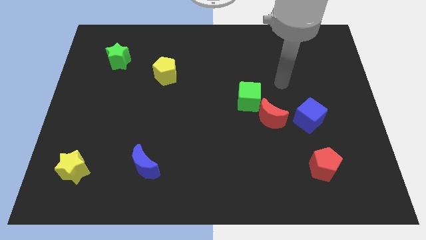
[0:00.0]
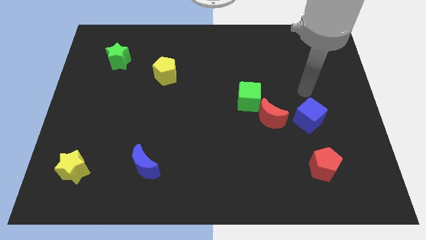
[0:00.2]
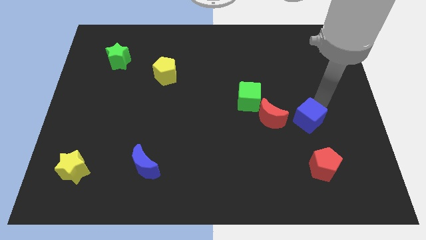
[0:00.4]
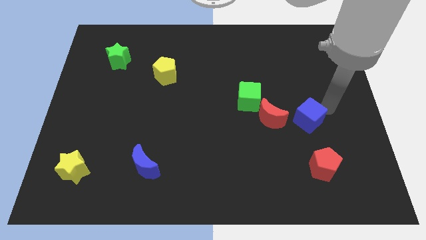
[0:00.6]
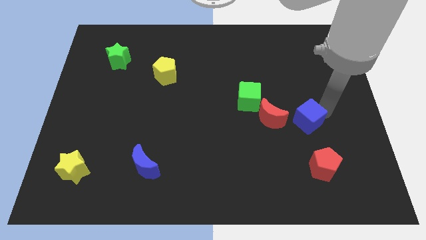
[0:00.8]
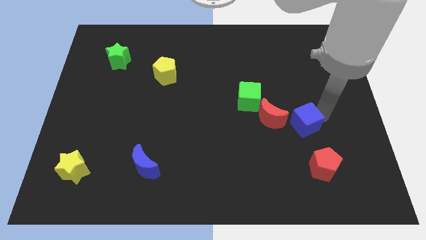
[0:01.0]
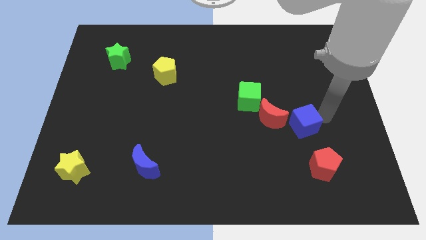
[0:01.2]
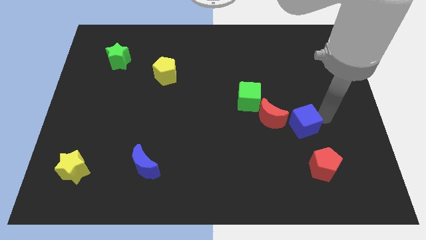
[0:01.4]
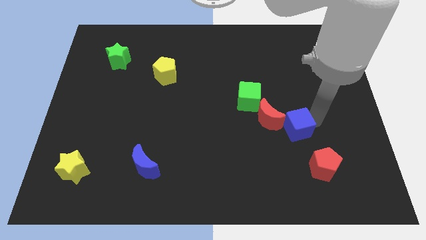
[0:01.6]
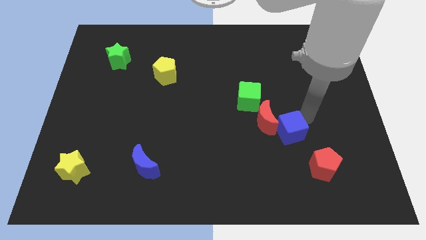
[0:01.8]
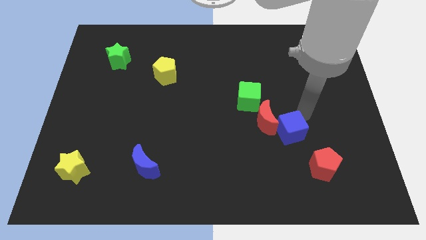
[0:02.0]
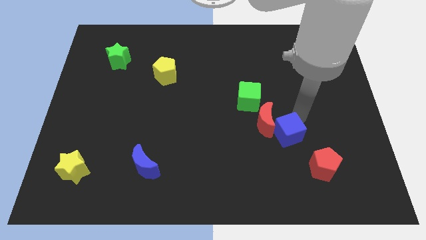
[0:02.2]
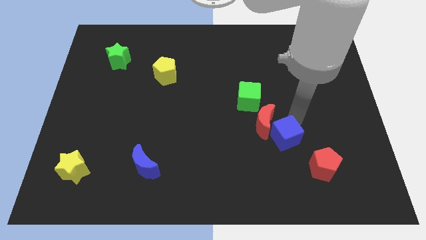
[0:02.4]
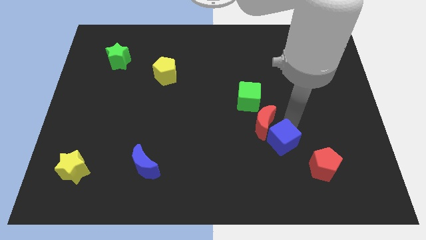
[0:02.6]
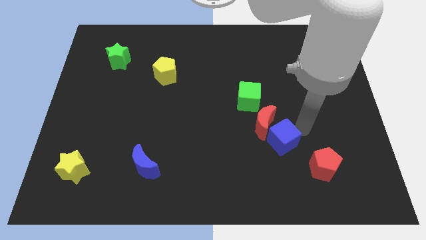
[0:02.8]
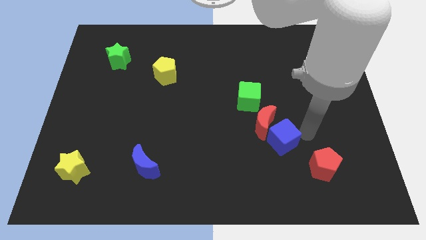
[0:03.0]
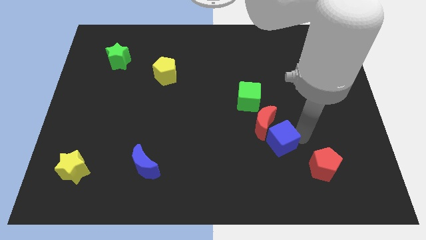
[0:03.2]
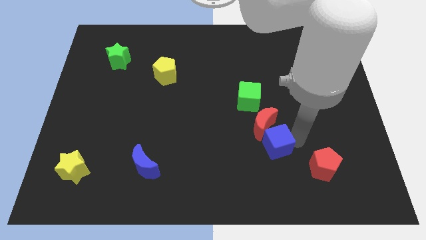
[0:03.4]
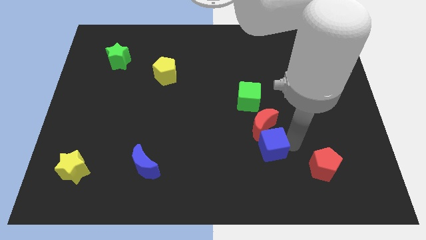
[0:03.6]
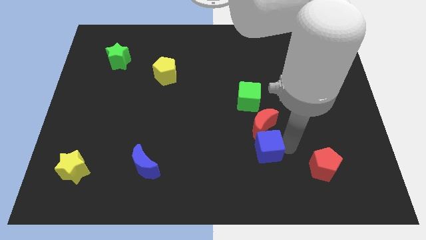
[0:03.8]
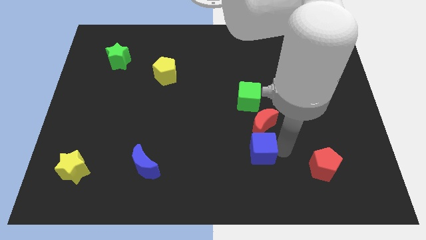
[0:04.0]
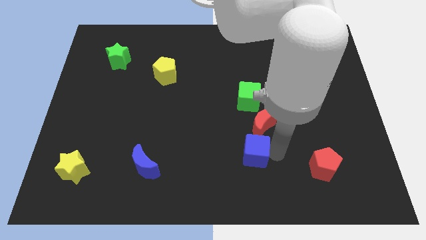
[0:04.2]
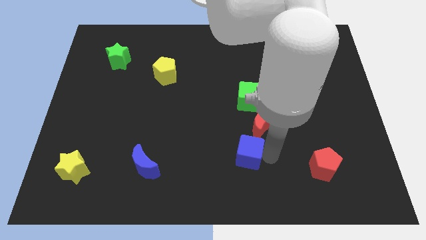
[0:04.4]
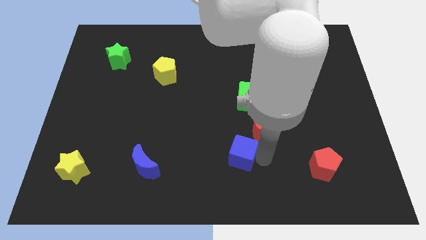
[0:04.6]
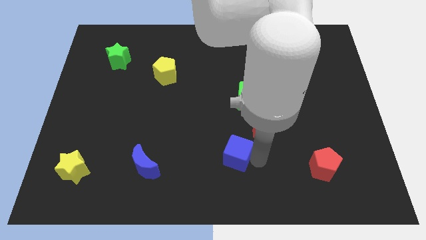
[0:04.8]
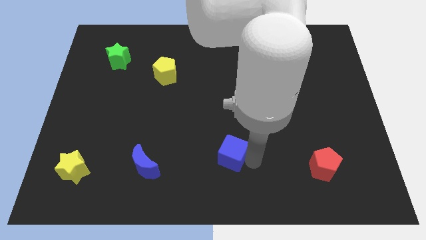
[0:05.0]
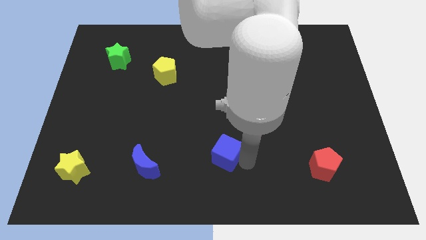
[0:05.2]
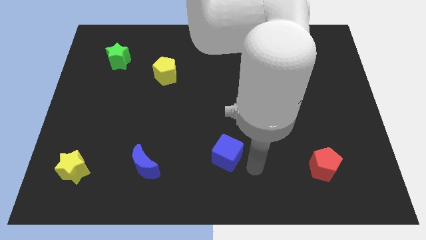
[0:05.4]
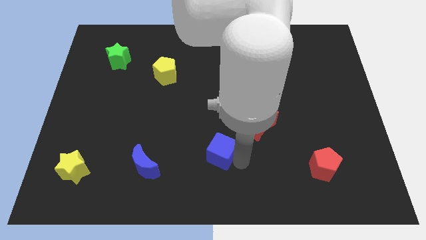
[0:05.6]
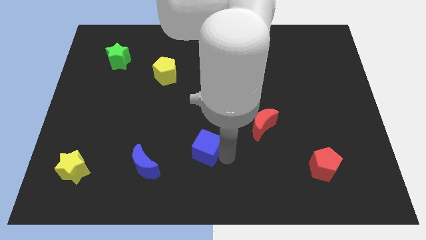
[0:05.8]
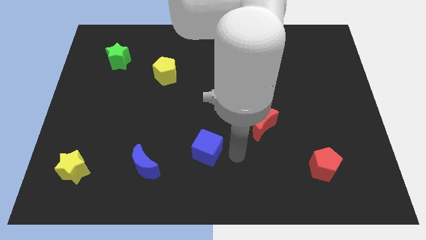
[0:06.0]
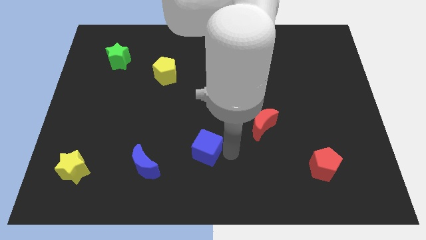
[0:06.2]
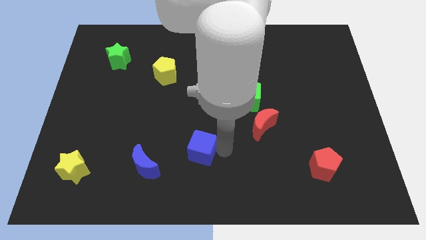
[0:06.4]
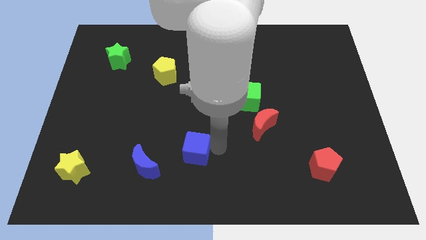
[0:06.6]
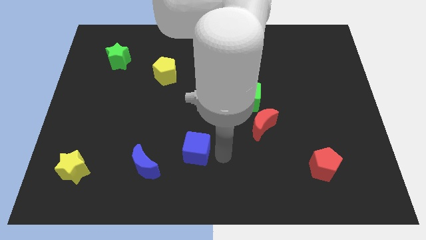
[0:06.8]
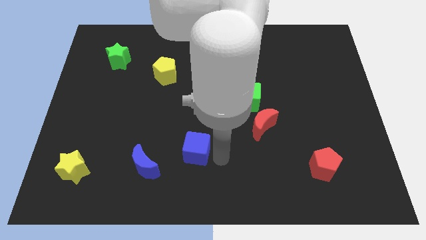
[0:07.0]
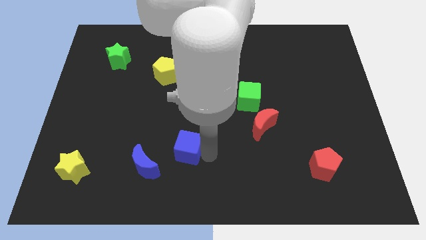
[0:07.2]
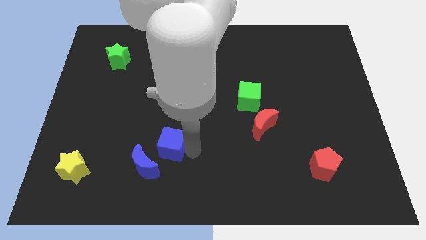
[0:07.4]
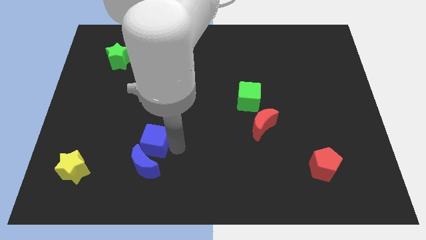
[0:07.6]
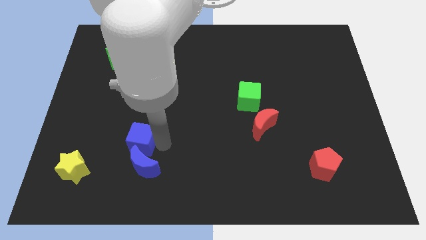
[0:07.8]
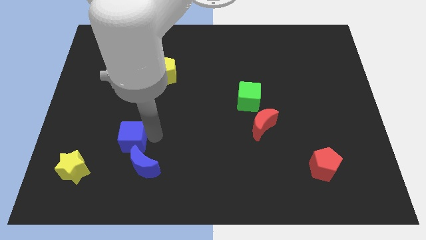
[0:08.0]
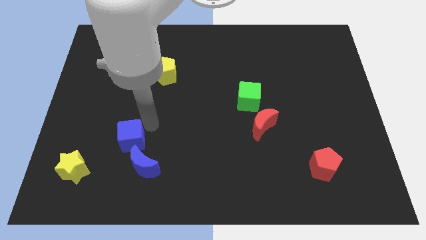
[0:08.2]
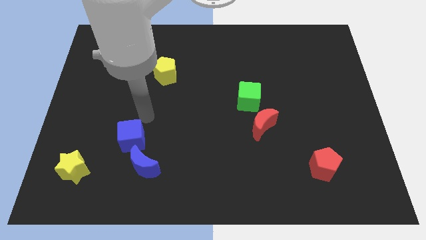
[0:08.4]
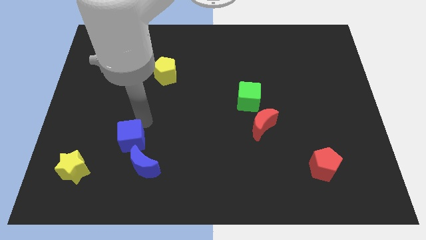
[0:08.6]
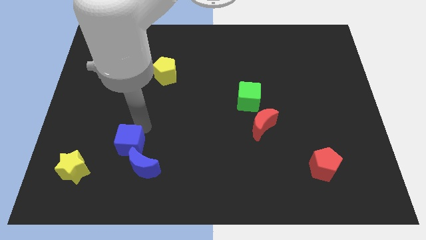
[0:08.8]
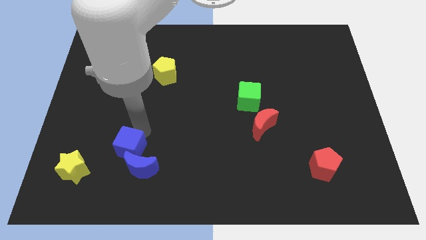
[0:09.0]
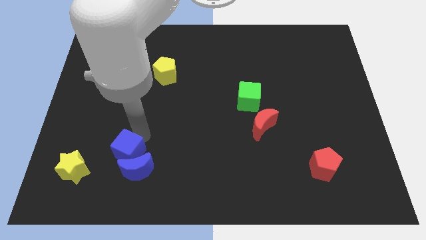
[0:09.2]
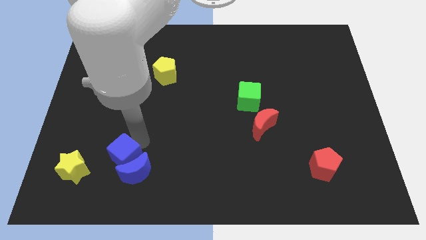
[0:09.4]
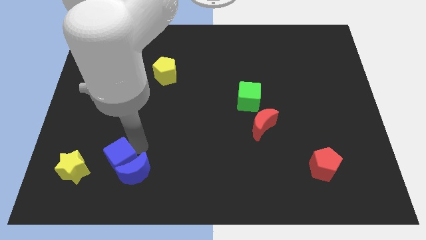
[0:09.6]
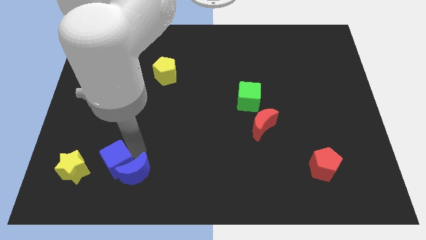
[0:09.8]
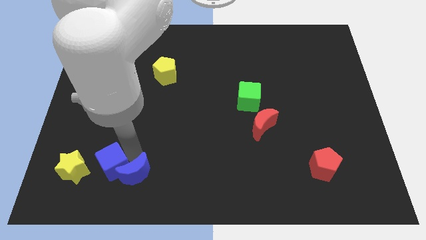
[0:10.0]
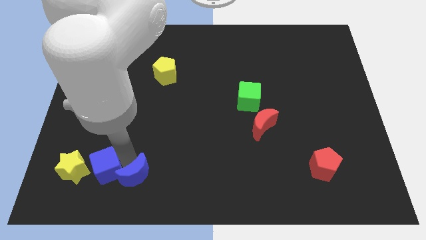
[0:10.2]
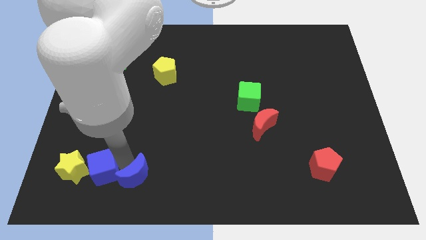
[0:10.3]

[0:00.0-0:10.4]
push the blue cube to the yellow star

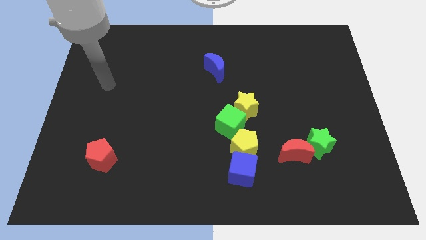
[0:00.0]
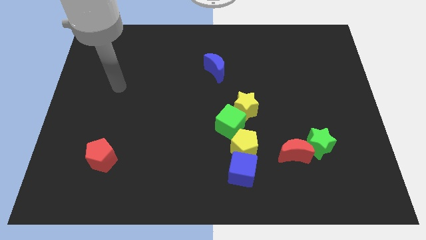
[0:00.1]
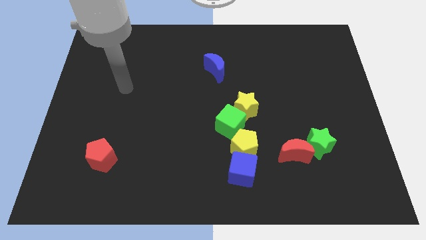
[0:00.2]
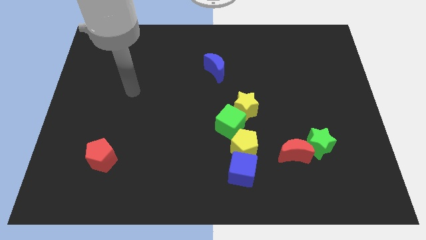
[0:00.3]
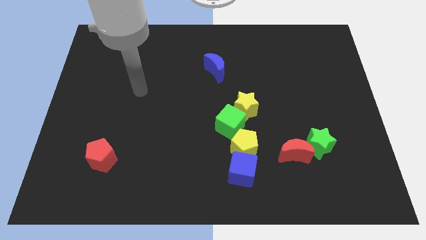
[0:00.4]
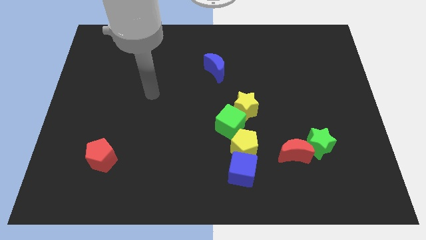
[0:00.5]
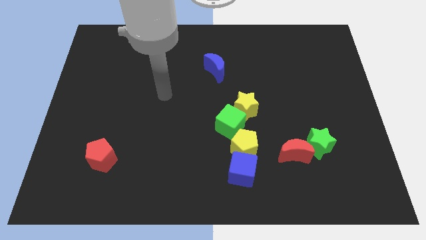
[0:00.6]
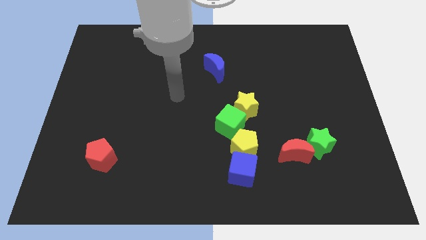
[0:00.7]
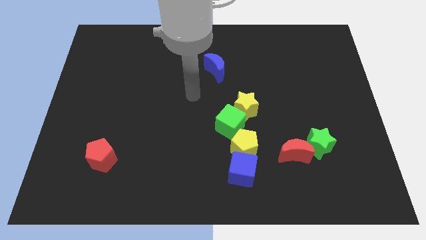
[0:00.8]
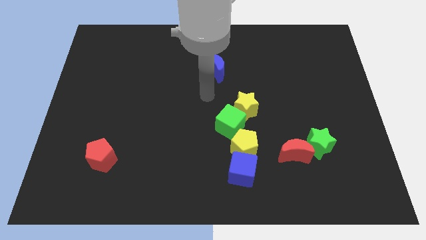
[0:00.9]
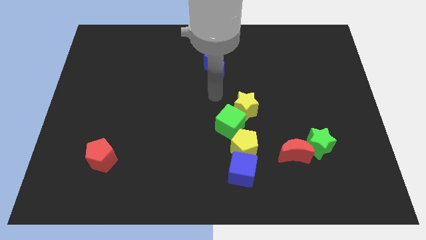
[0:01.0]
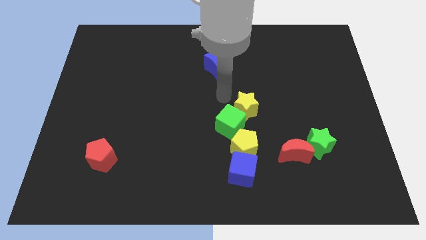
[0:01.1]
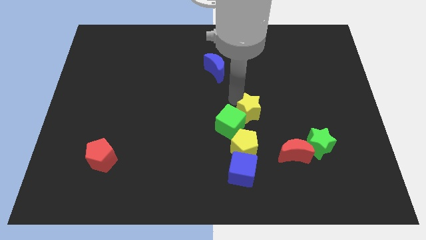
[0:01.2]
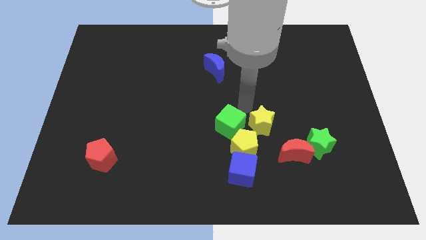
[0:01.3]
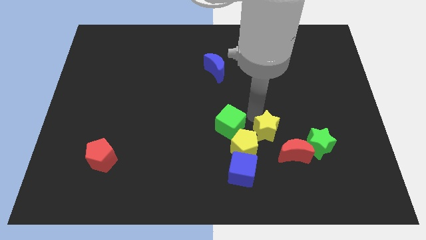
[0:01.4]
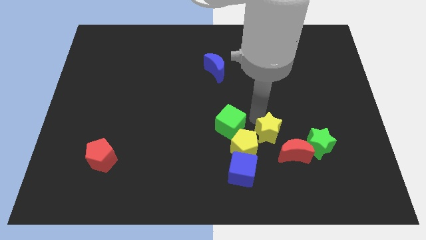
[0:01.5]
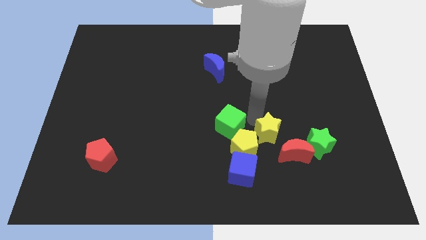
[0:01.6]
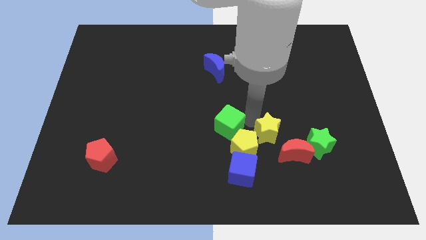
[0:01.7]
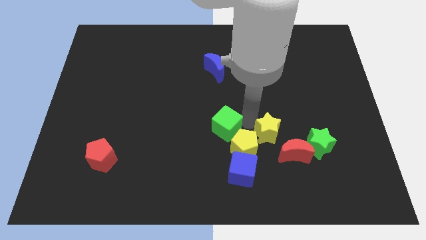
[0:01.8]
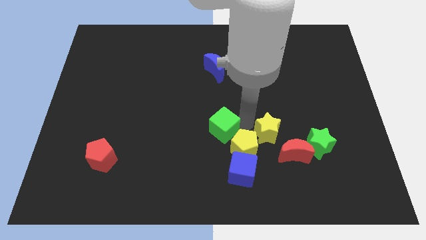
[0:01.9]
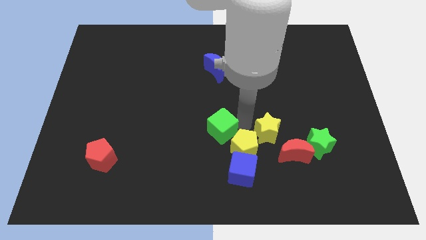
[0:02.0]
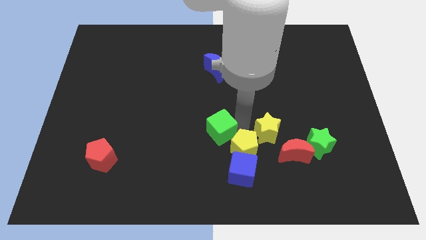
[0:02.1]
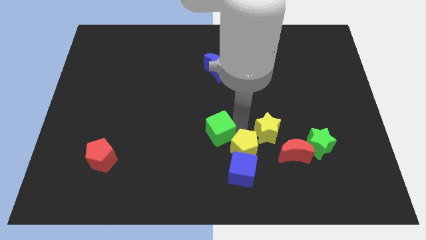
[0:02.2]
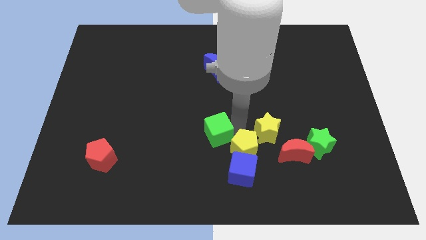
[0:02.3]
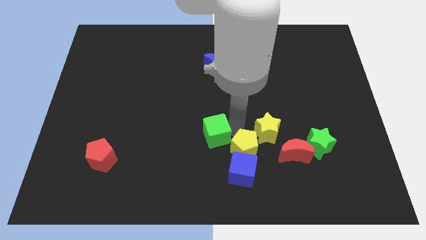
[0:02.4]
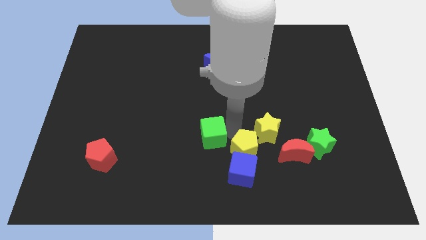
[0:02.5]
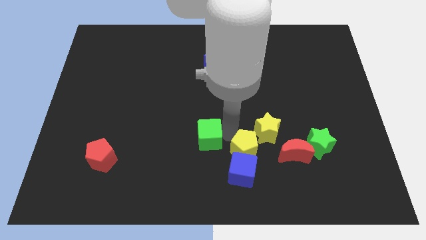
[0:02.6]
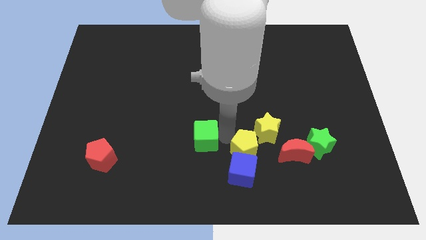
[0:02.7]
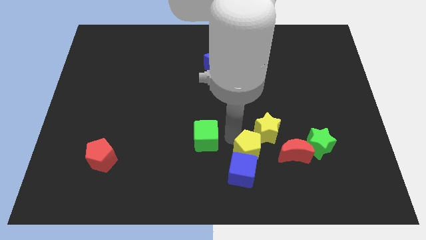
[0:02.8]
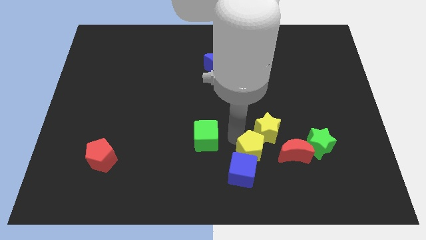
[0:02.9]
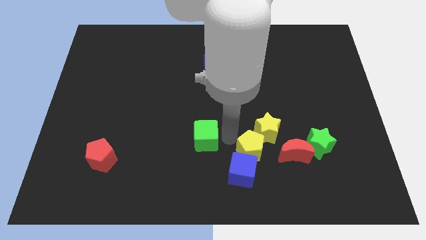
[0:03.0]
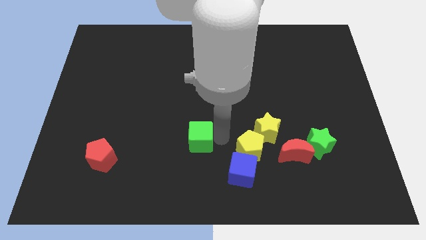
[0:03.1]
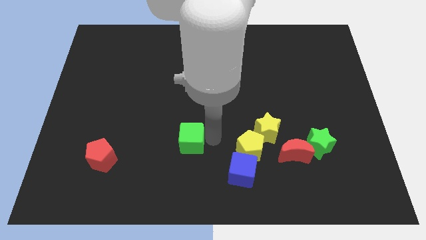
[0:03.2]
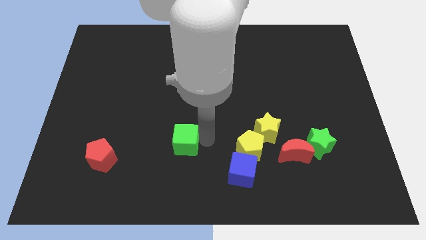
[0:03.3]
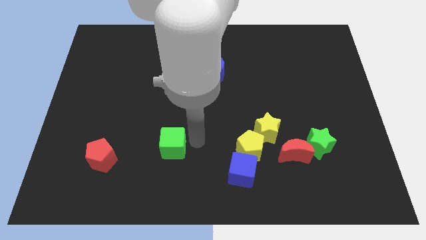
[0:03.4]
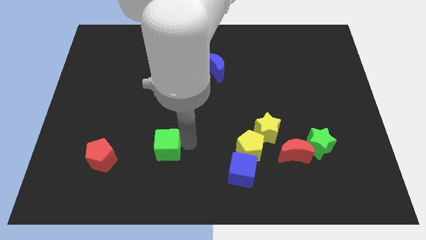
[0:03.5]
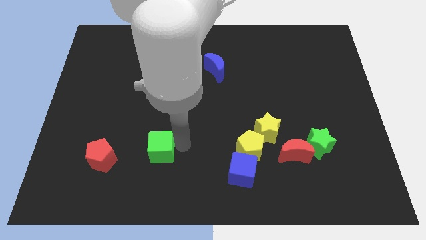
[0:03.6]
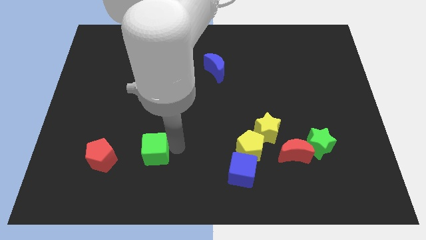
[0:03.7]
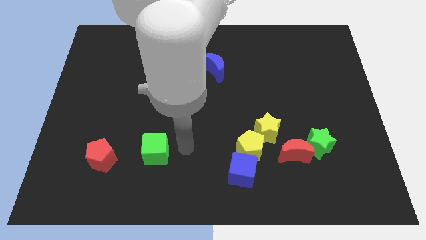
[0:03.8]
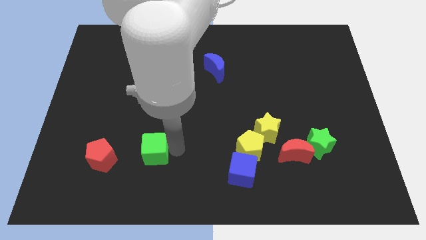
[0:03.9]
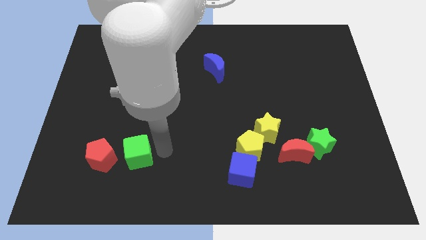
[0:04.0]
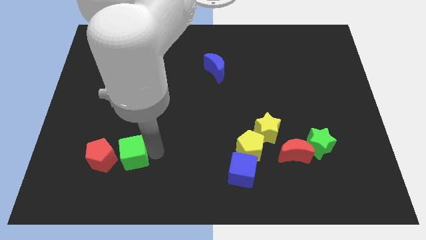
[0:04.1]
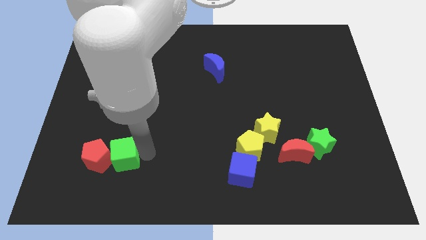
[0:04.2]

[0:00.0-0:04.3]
move the green cube next to the red pentagon
